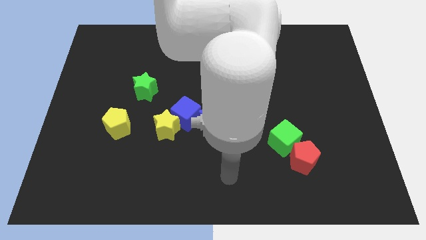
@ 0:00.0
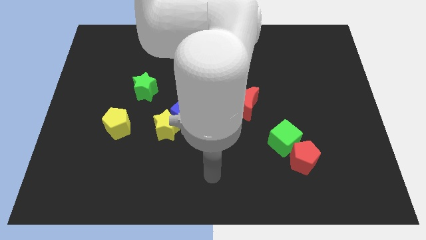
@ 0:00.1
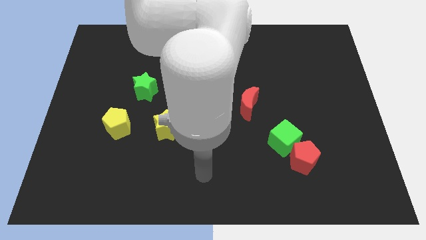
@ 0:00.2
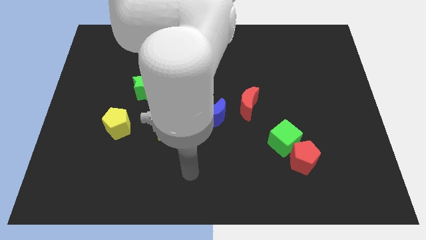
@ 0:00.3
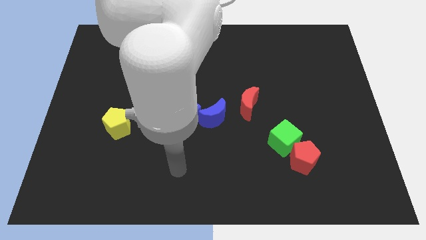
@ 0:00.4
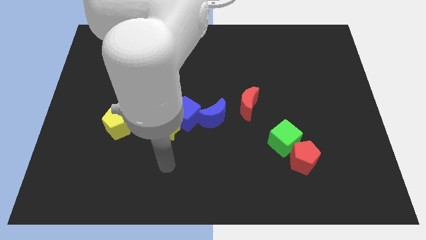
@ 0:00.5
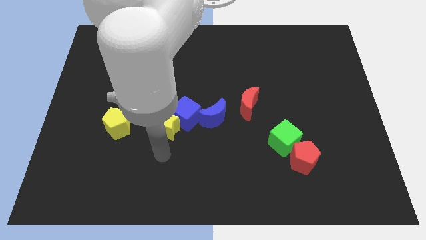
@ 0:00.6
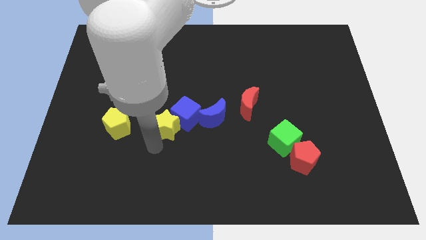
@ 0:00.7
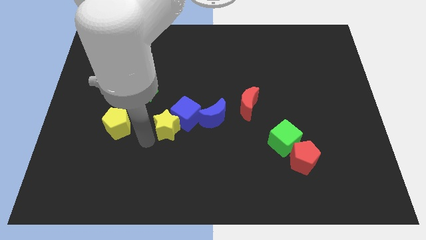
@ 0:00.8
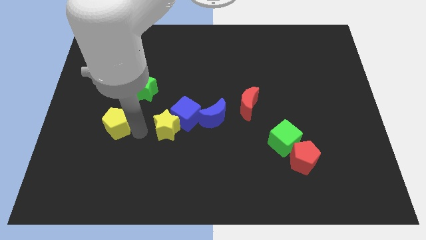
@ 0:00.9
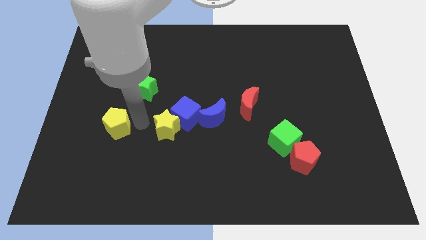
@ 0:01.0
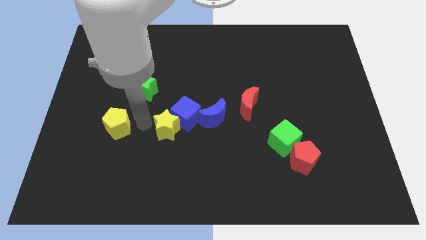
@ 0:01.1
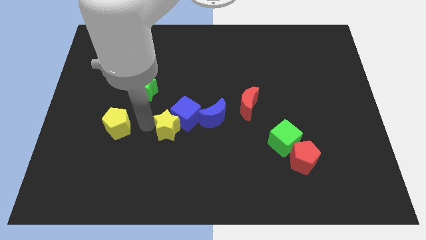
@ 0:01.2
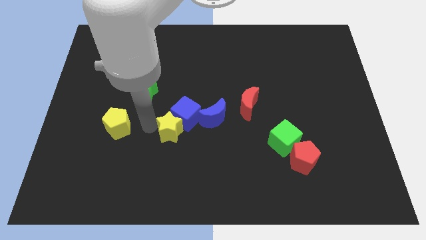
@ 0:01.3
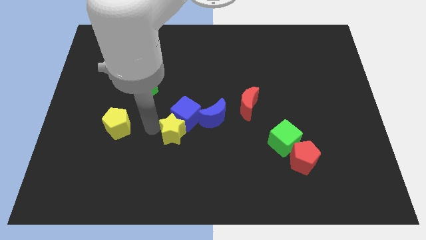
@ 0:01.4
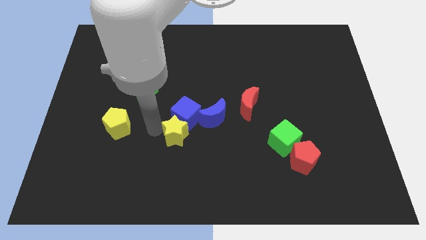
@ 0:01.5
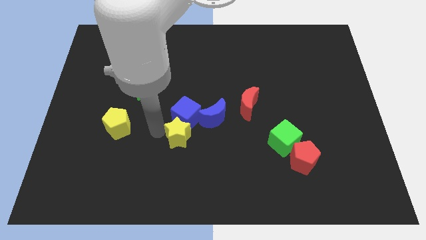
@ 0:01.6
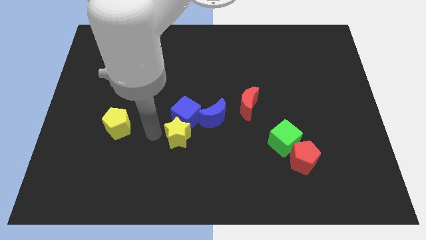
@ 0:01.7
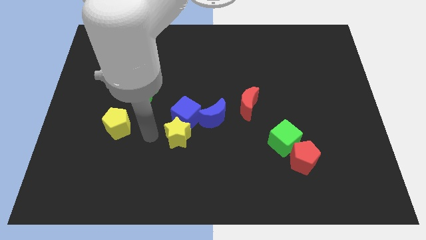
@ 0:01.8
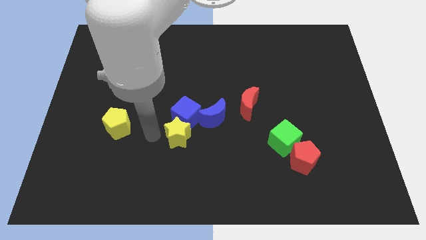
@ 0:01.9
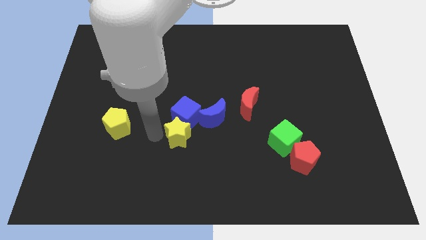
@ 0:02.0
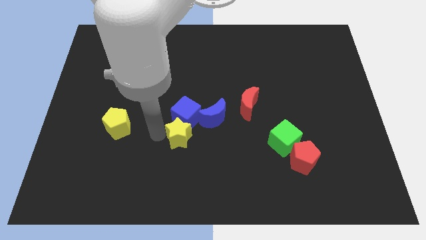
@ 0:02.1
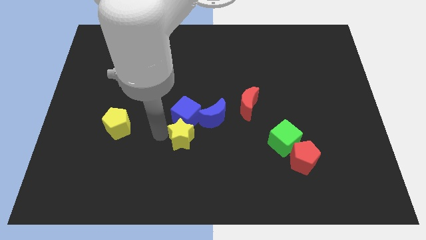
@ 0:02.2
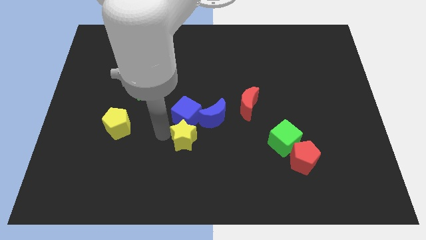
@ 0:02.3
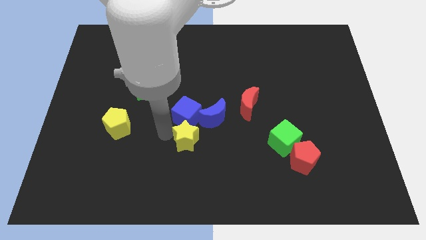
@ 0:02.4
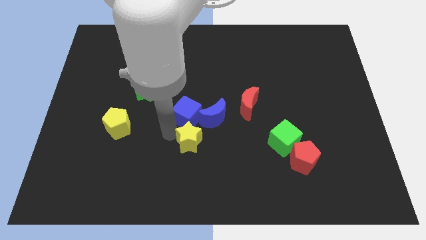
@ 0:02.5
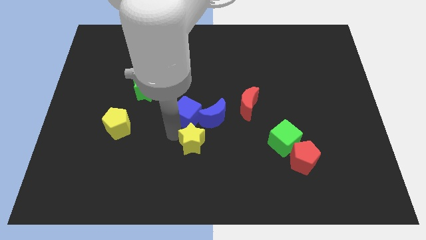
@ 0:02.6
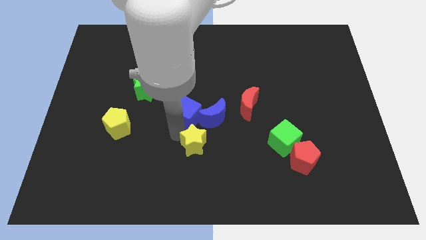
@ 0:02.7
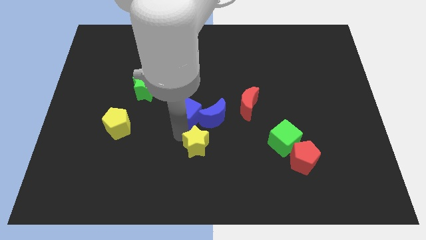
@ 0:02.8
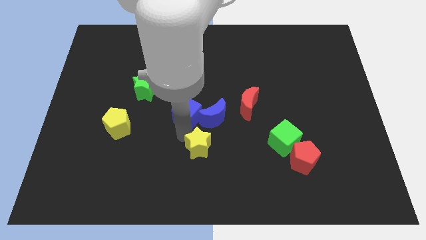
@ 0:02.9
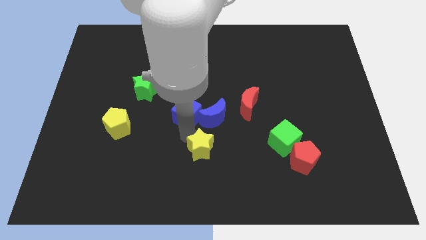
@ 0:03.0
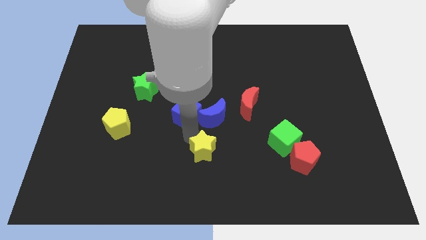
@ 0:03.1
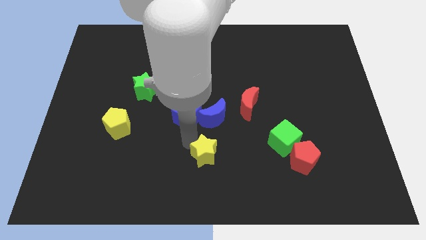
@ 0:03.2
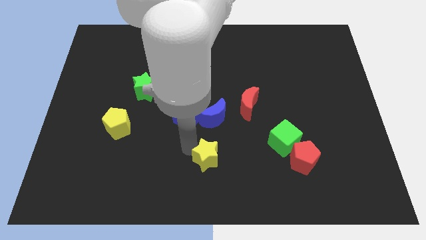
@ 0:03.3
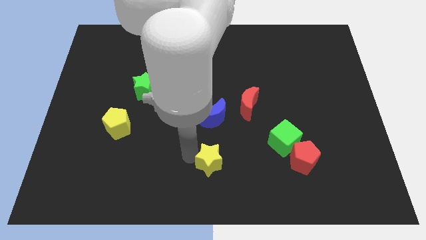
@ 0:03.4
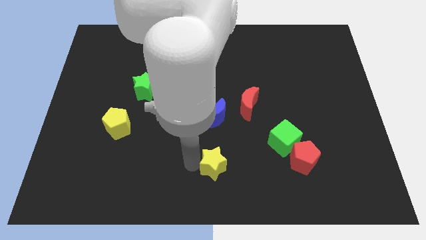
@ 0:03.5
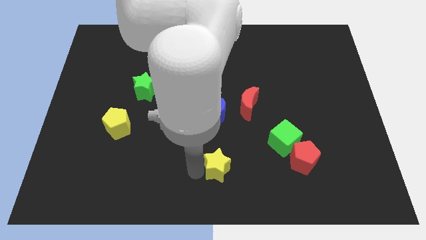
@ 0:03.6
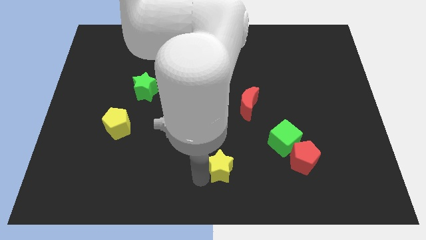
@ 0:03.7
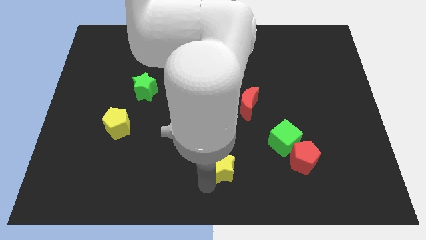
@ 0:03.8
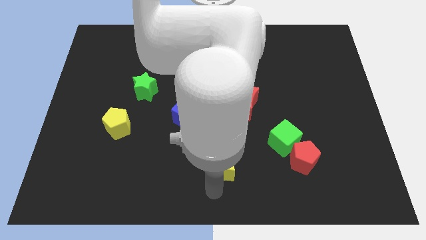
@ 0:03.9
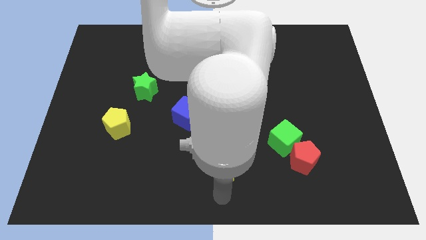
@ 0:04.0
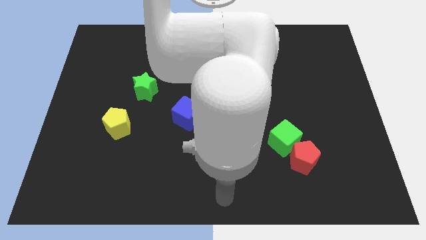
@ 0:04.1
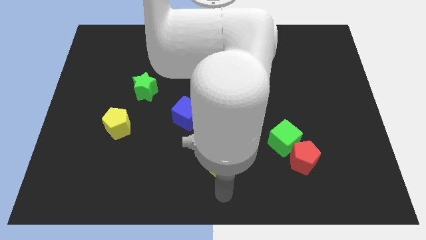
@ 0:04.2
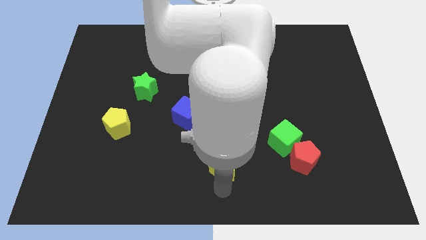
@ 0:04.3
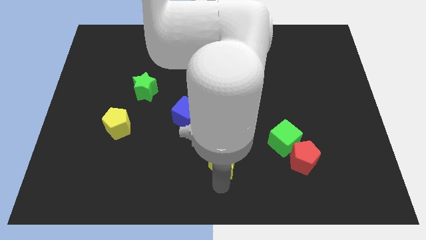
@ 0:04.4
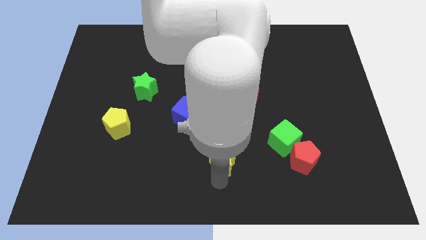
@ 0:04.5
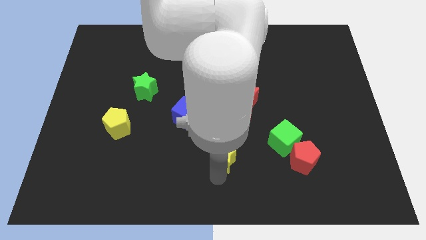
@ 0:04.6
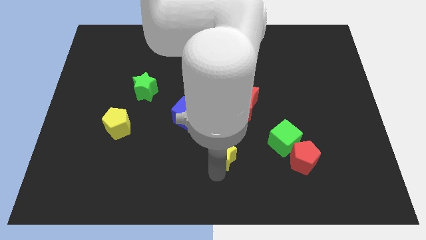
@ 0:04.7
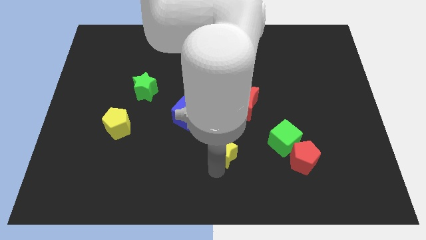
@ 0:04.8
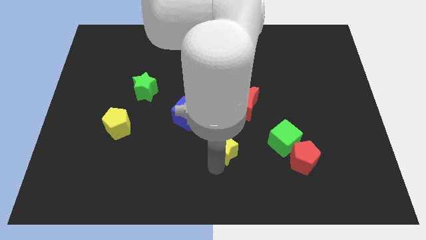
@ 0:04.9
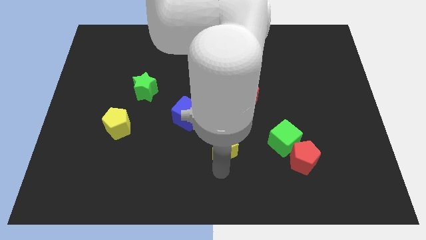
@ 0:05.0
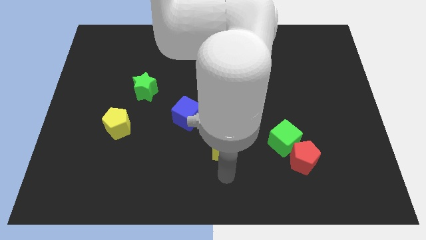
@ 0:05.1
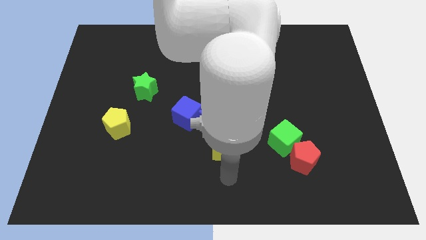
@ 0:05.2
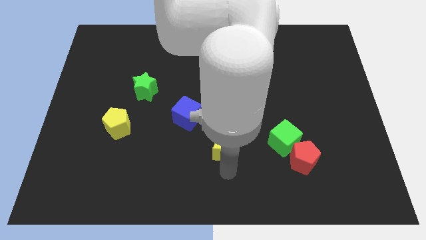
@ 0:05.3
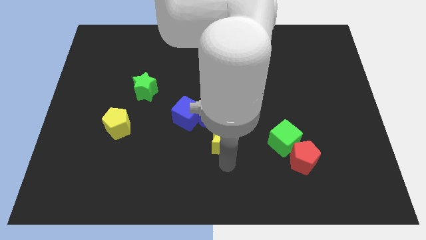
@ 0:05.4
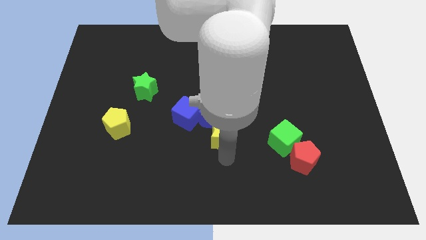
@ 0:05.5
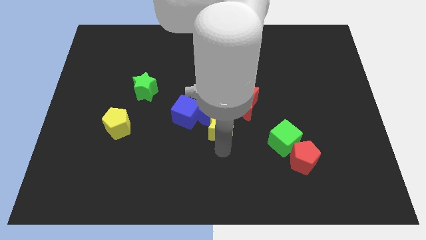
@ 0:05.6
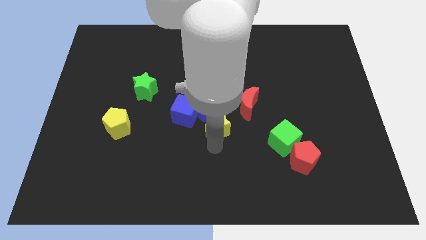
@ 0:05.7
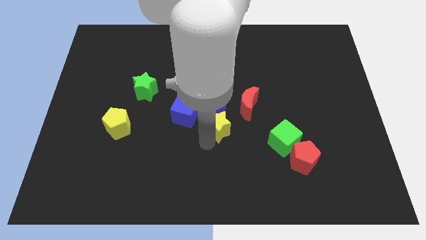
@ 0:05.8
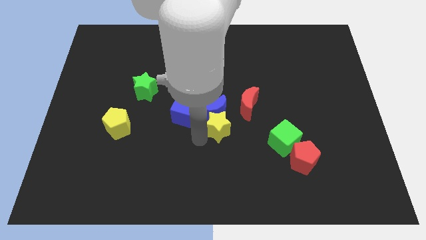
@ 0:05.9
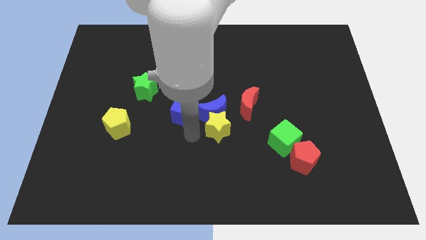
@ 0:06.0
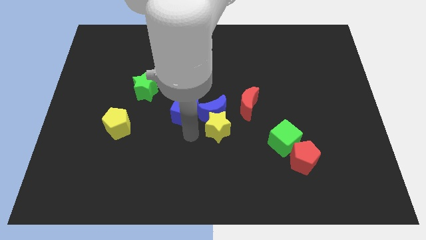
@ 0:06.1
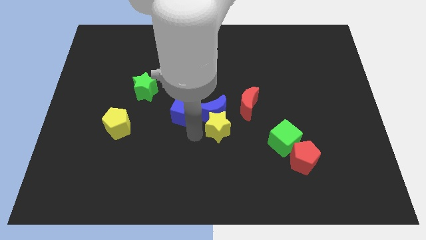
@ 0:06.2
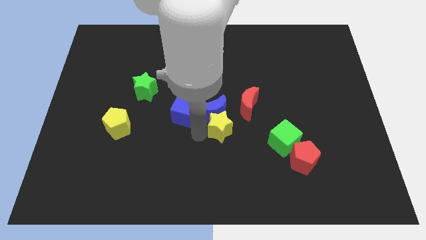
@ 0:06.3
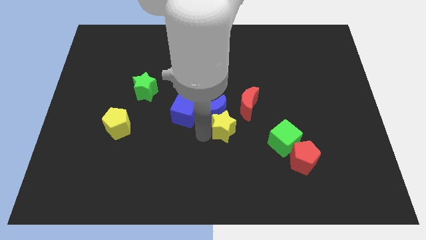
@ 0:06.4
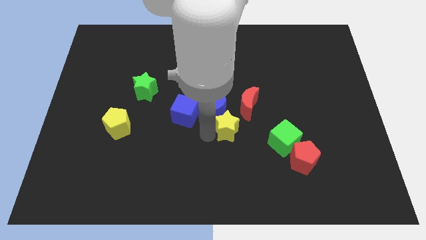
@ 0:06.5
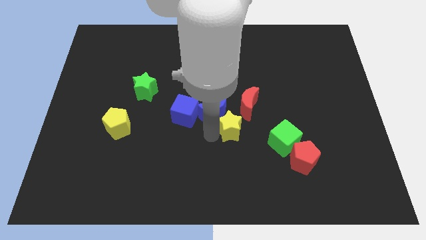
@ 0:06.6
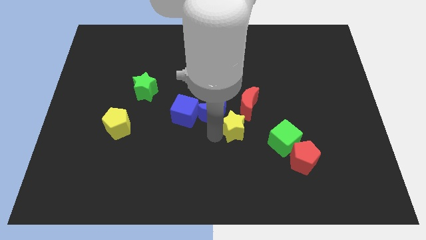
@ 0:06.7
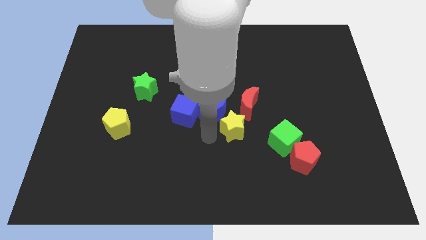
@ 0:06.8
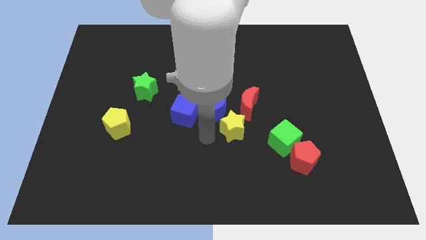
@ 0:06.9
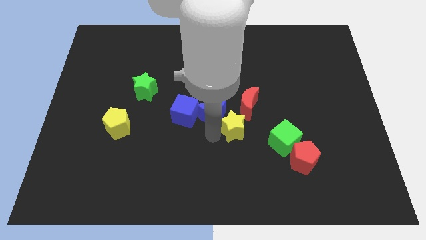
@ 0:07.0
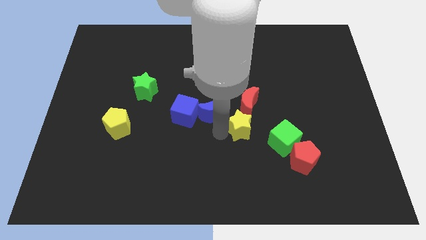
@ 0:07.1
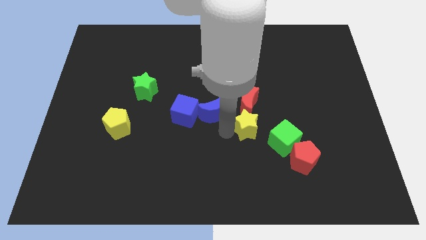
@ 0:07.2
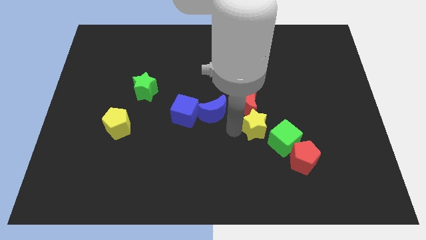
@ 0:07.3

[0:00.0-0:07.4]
push the yellow star right

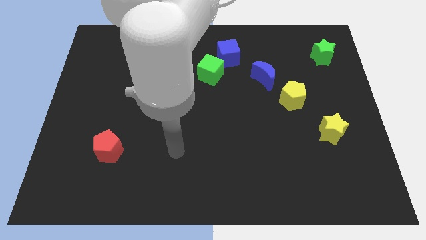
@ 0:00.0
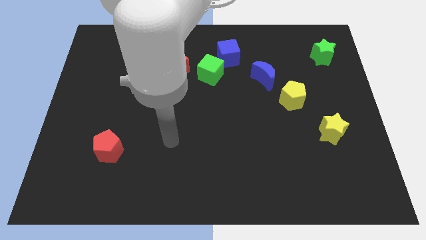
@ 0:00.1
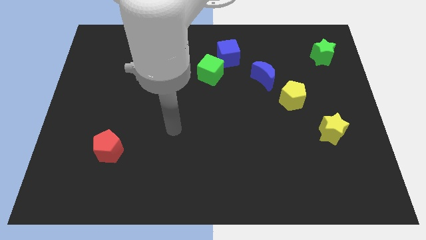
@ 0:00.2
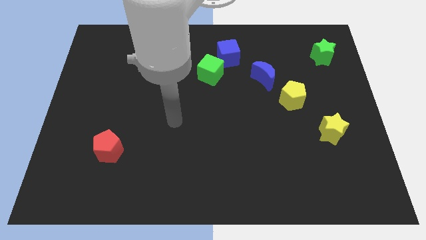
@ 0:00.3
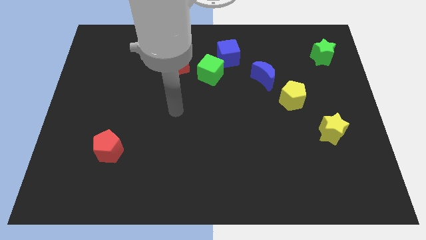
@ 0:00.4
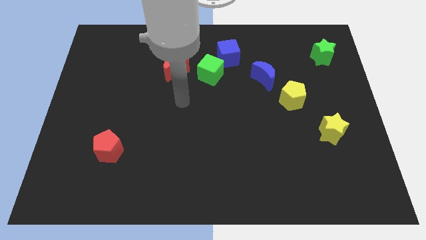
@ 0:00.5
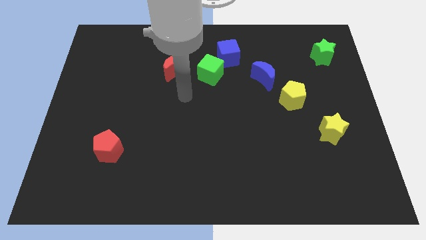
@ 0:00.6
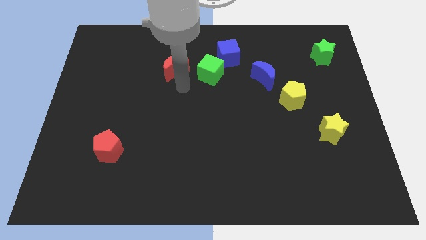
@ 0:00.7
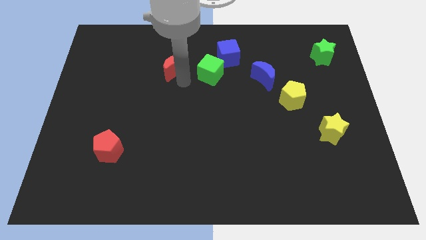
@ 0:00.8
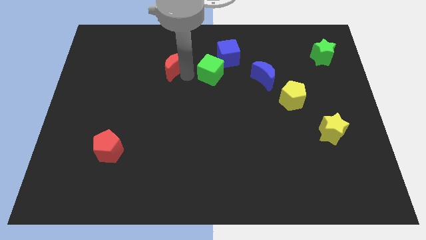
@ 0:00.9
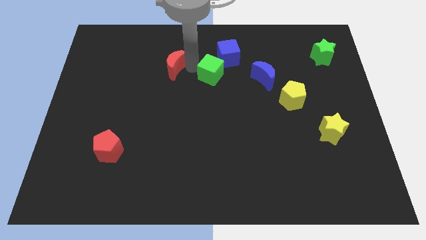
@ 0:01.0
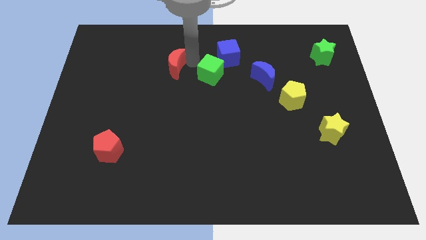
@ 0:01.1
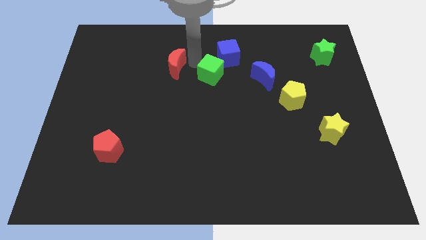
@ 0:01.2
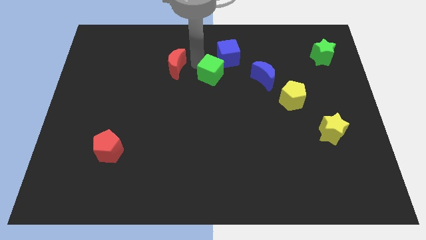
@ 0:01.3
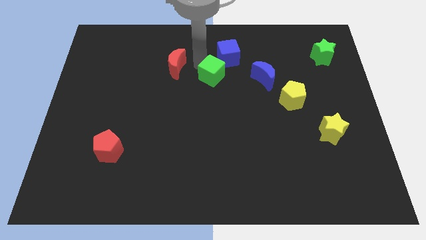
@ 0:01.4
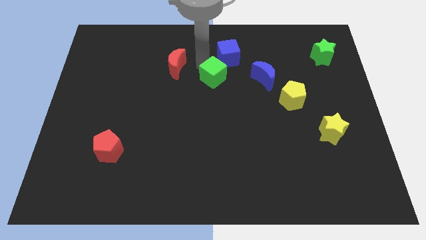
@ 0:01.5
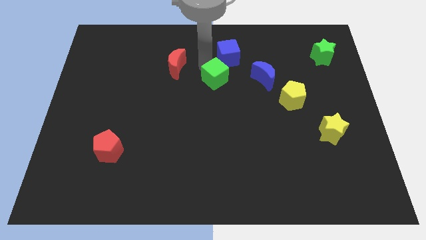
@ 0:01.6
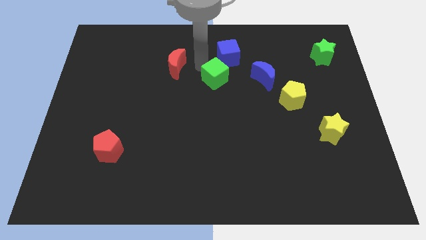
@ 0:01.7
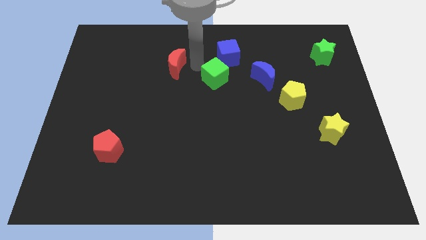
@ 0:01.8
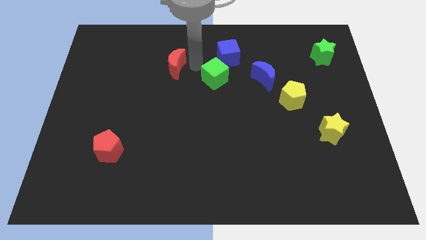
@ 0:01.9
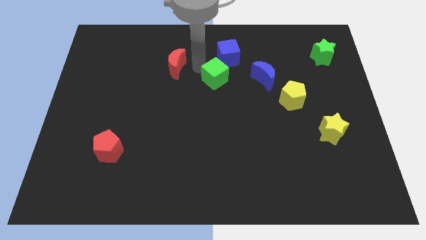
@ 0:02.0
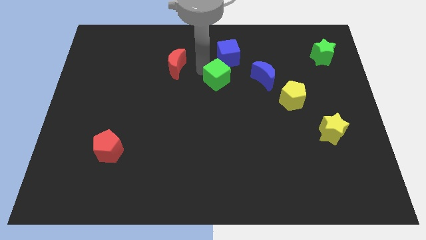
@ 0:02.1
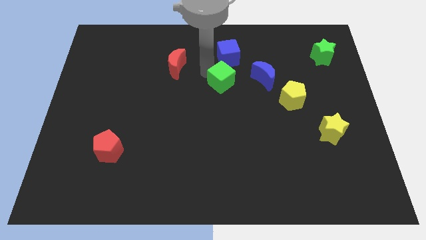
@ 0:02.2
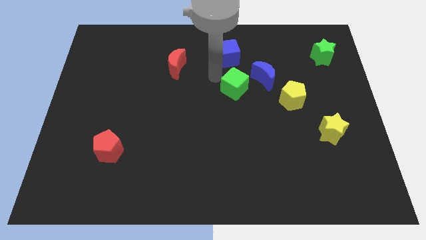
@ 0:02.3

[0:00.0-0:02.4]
move the green cube down and then to the right a little
